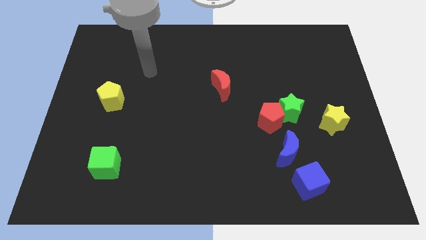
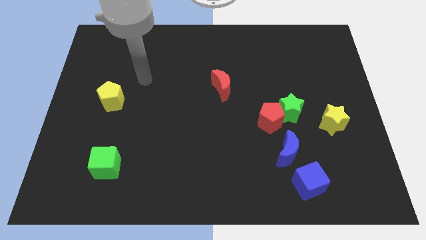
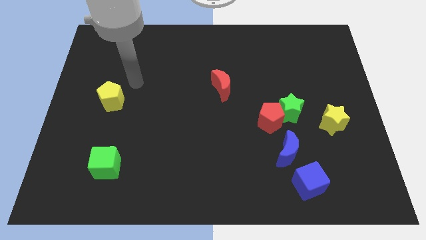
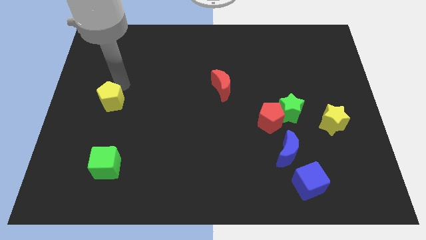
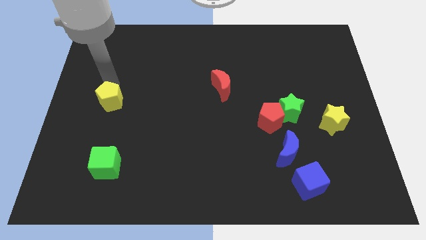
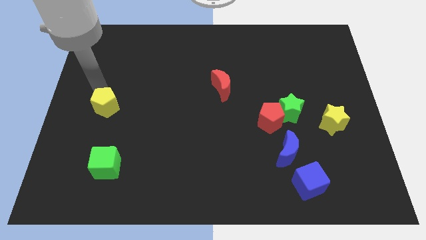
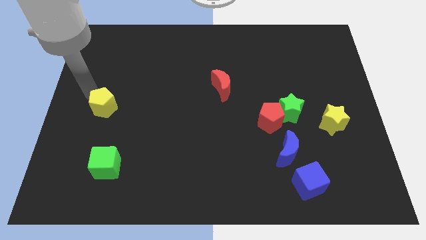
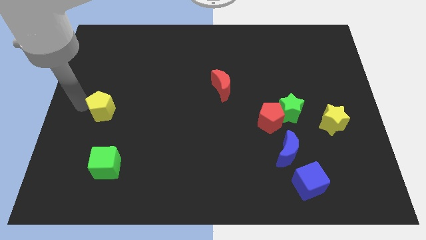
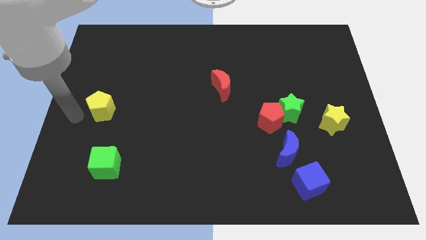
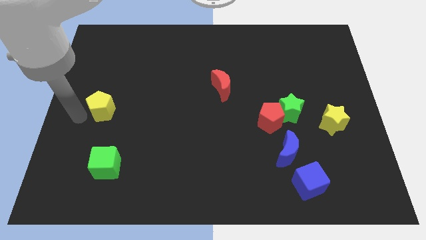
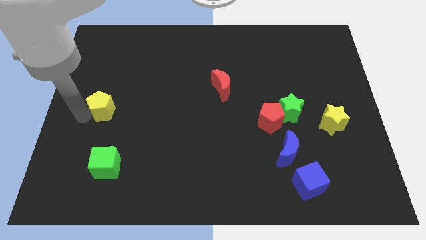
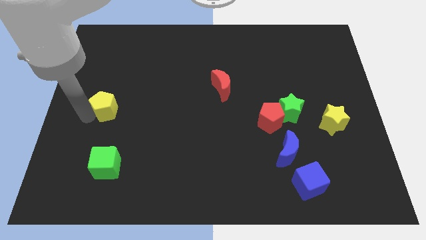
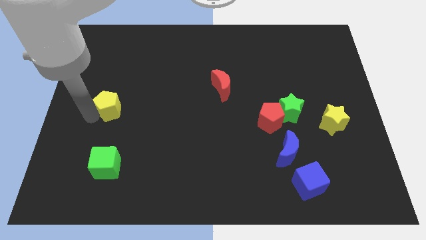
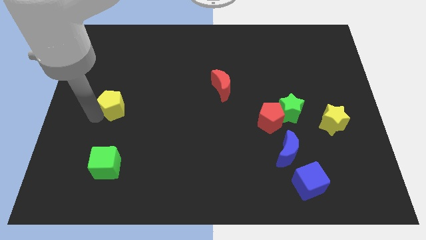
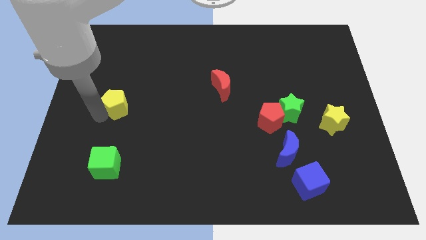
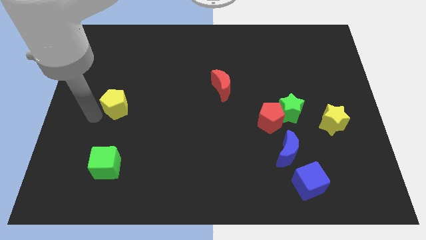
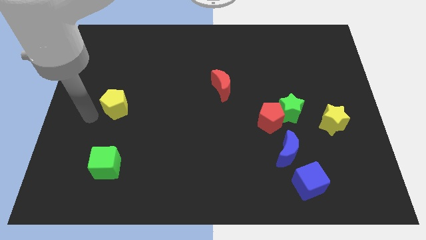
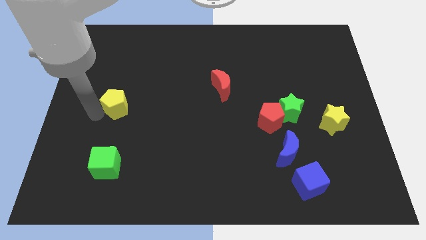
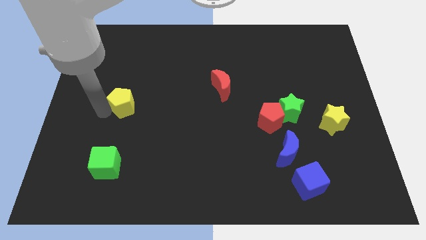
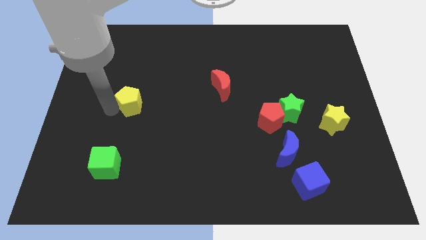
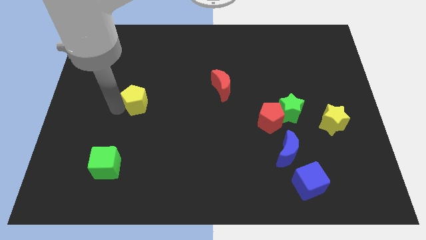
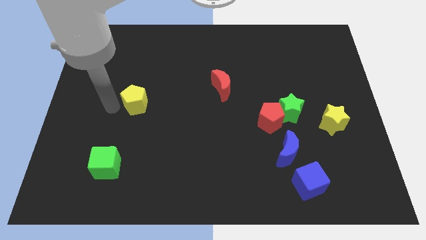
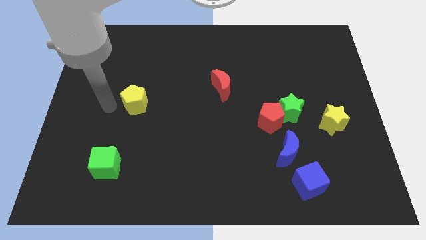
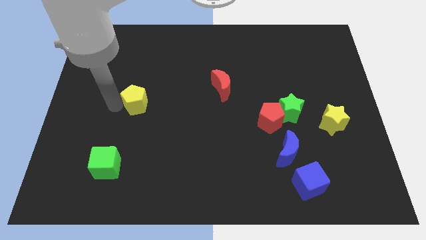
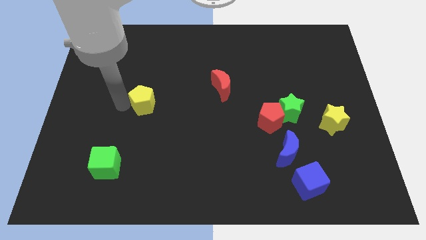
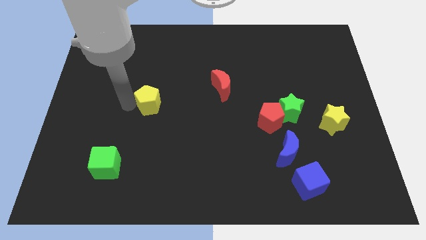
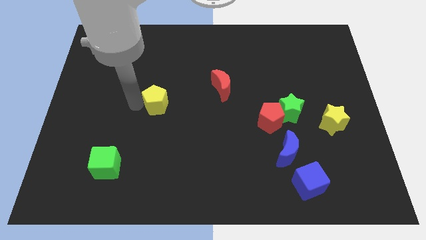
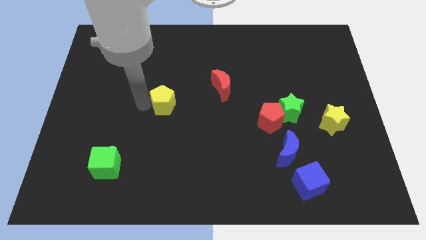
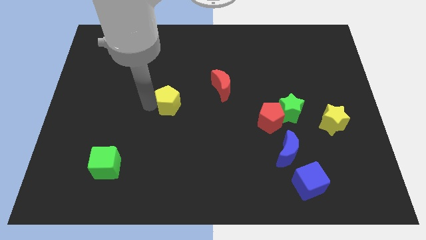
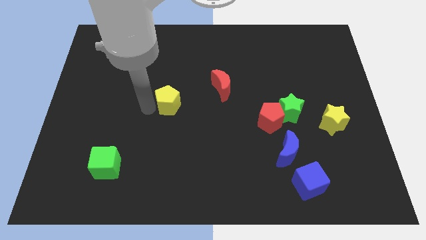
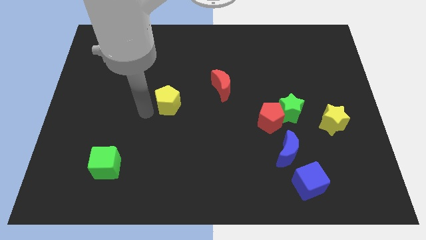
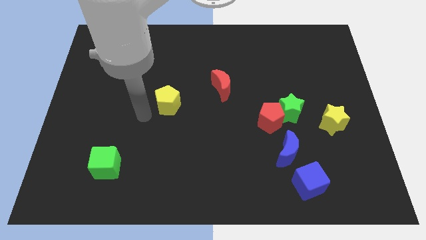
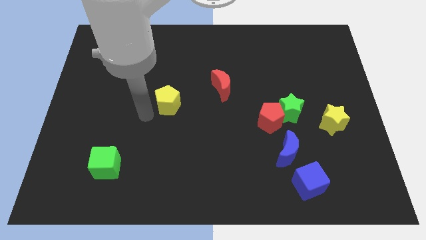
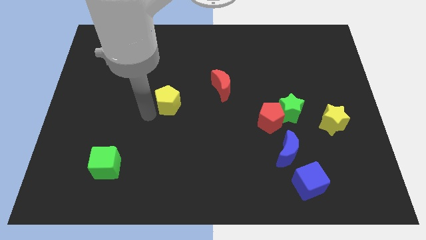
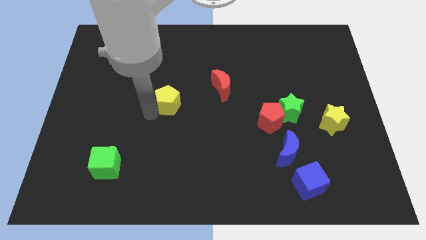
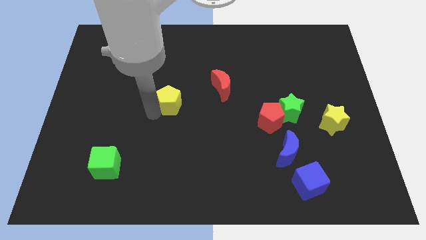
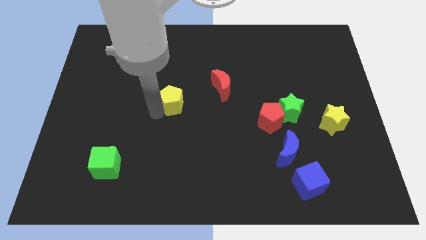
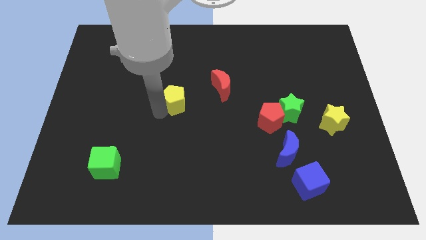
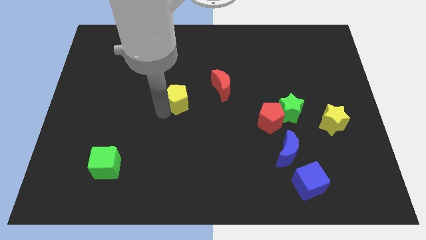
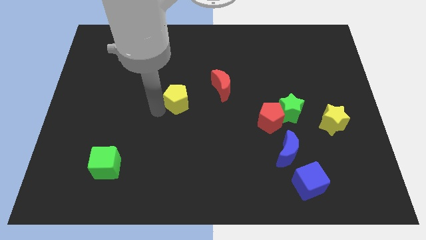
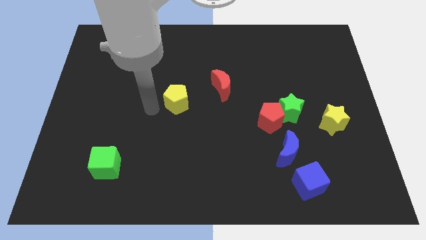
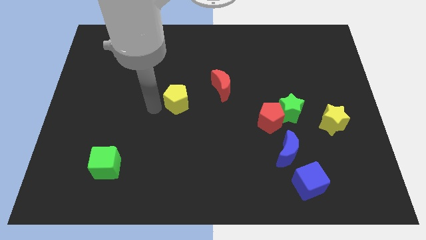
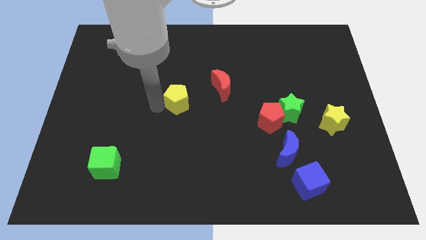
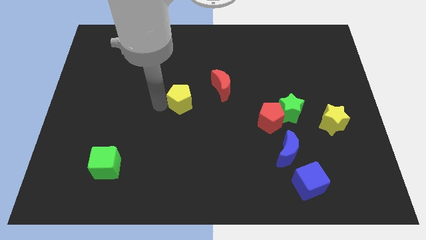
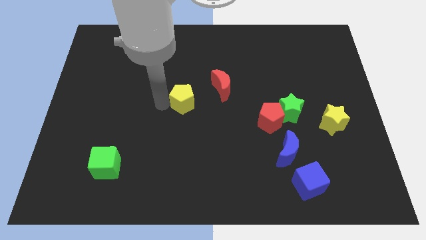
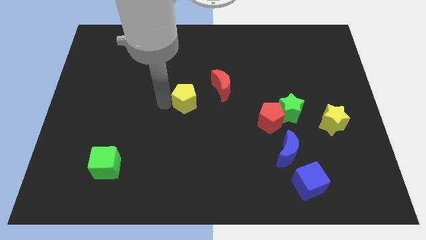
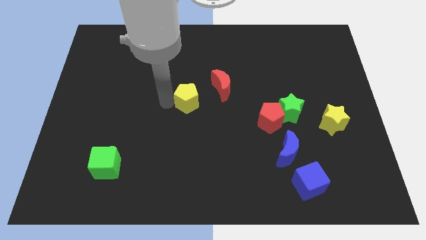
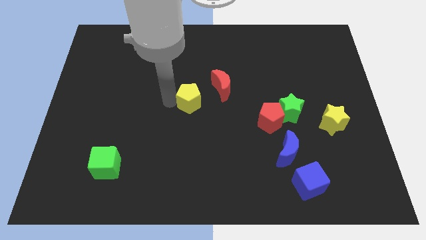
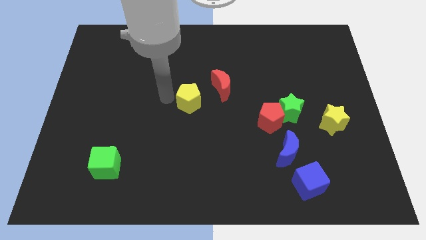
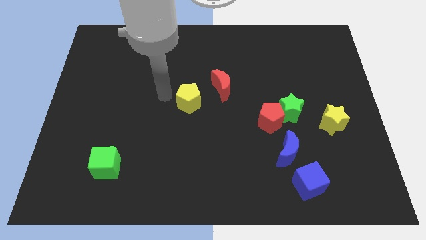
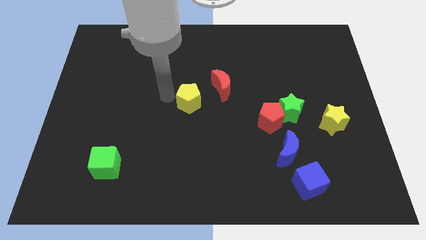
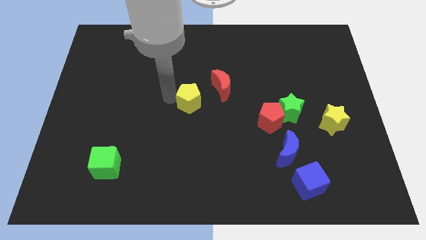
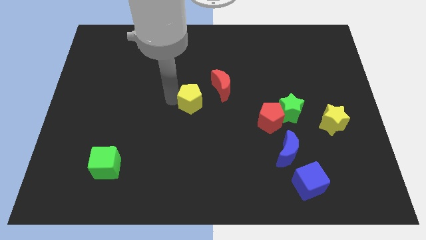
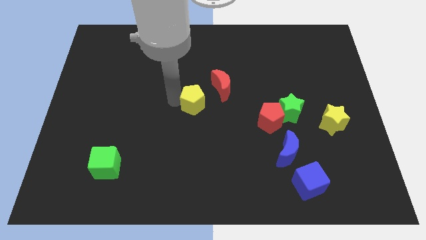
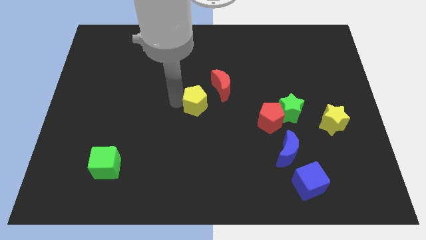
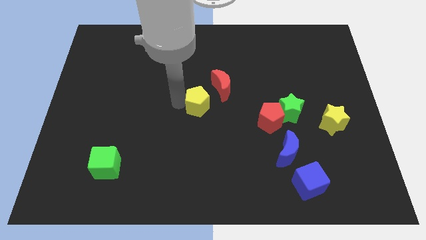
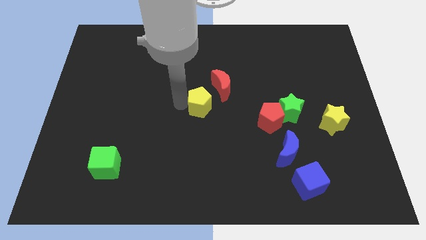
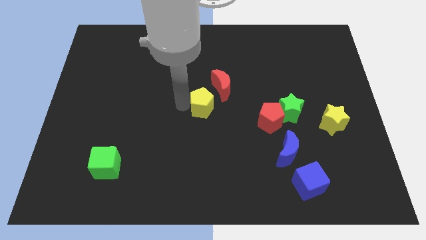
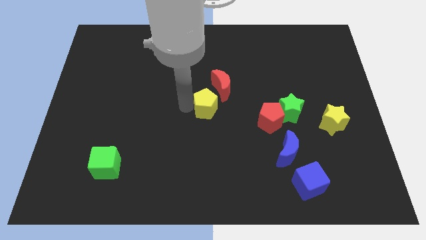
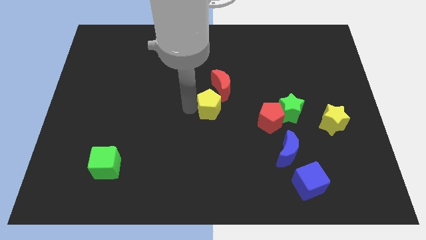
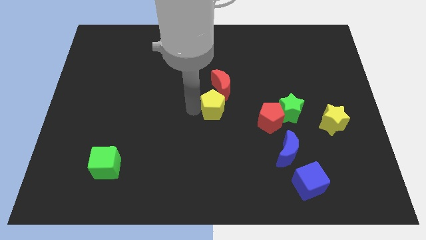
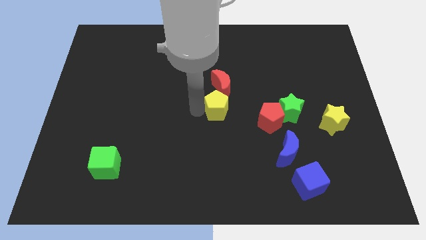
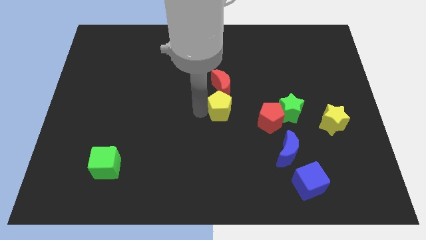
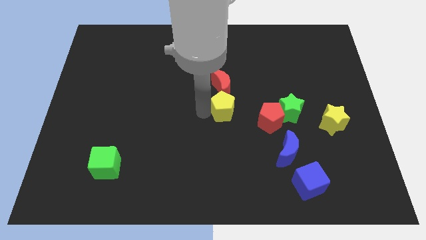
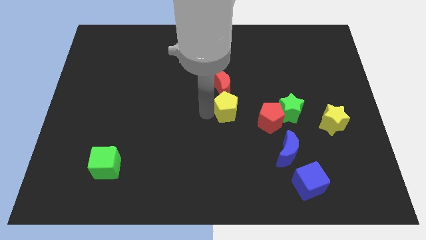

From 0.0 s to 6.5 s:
put the yellow pentagon diagonally up and to the left of the red pentagon

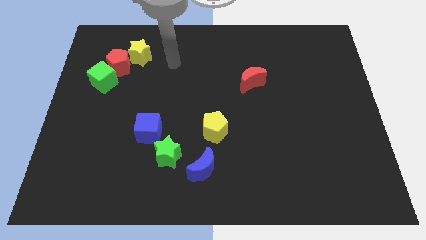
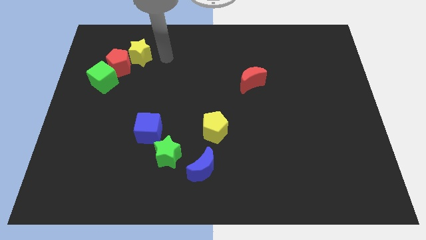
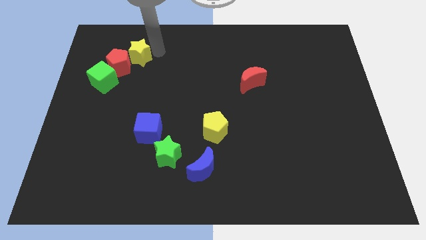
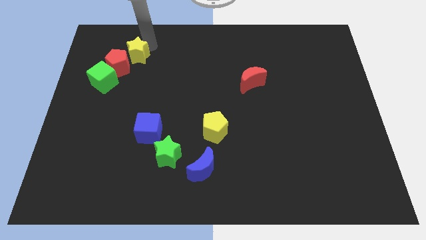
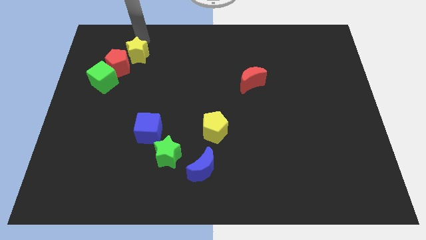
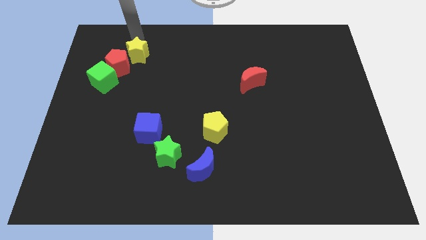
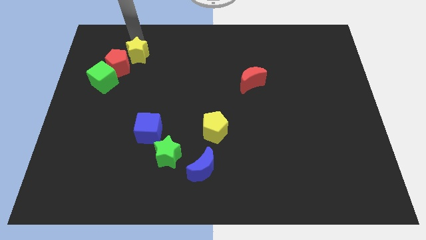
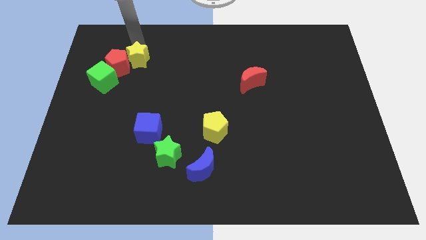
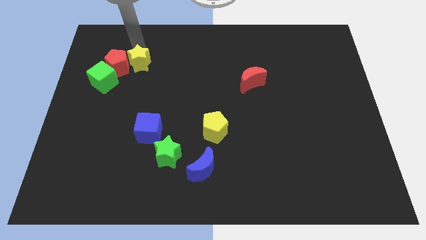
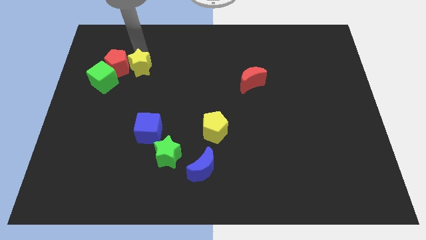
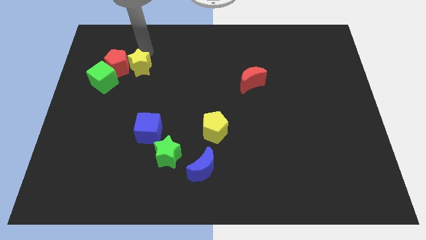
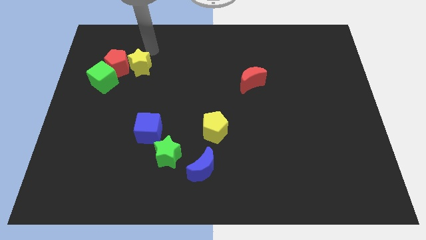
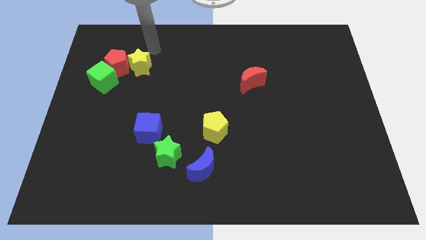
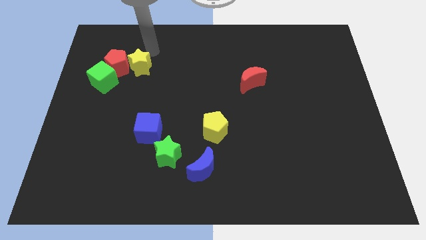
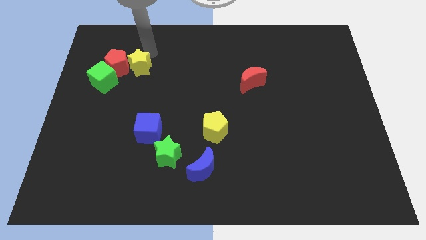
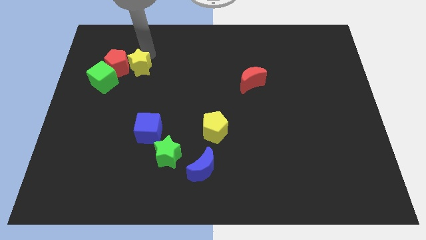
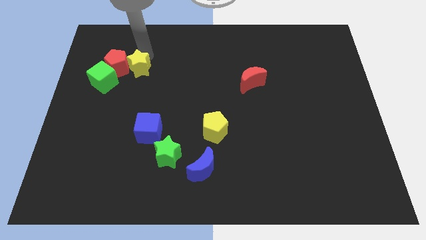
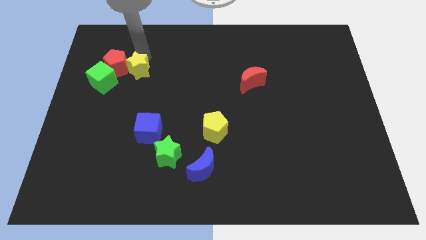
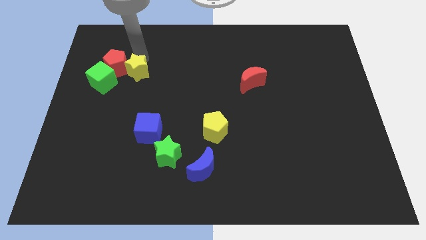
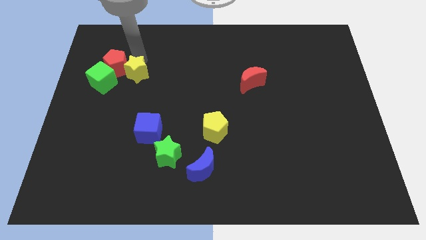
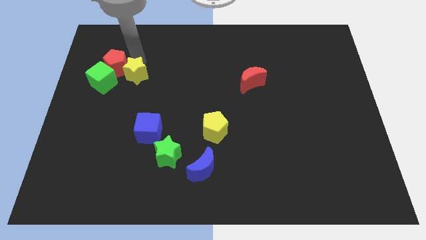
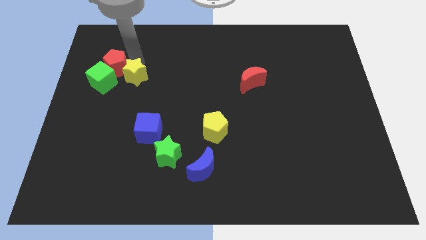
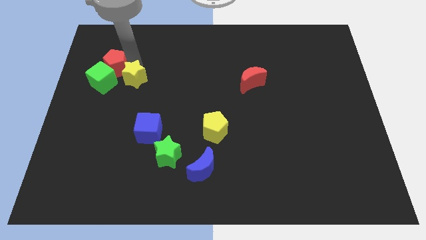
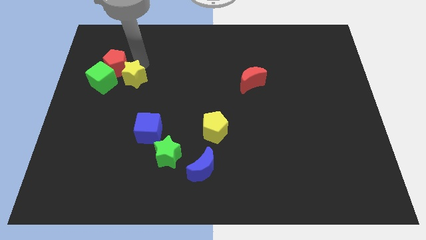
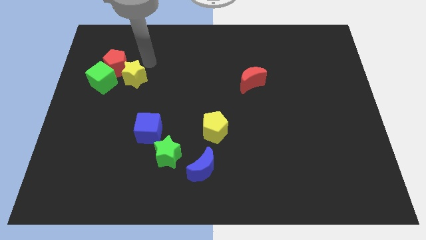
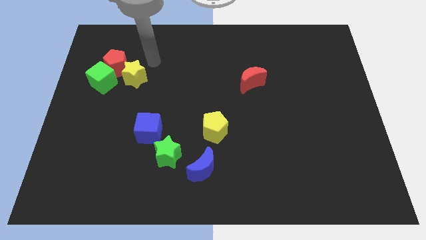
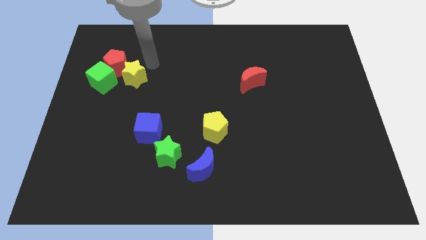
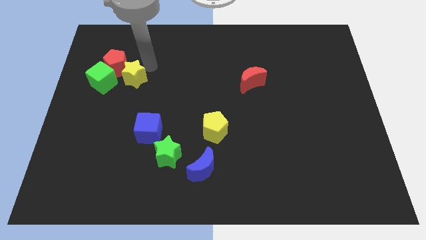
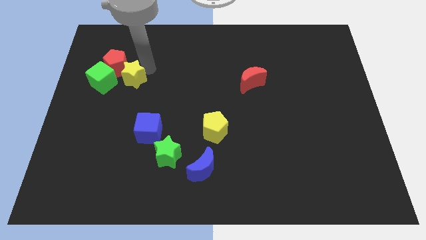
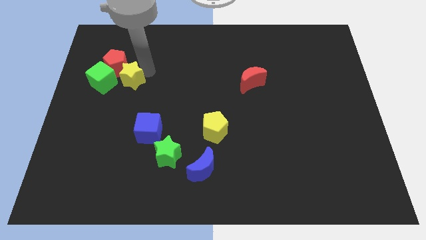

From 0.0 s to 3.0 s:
slide the yellow star below the red pentagon
